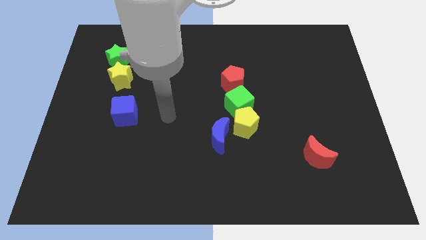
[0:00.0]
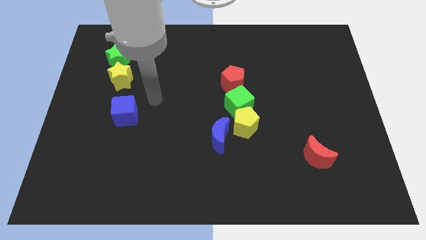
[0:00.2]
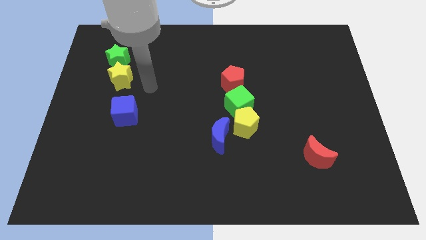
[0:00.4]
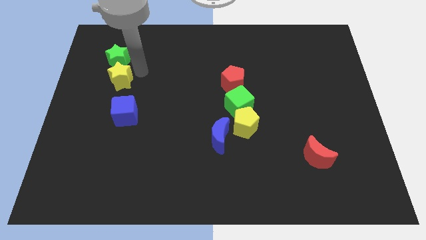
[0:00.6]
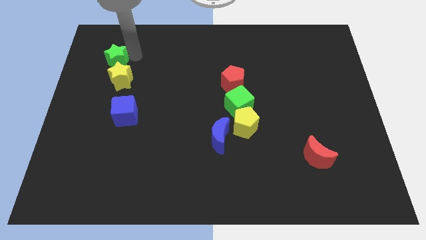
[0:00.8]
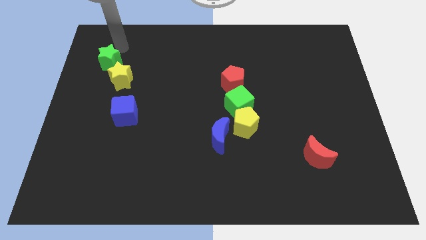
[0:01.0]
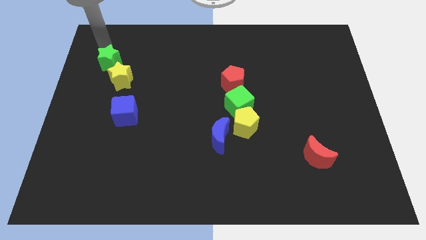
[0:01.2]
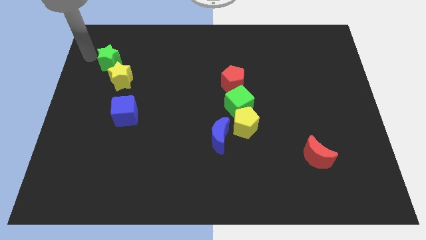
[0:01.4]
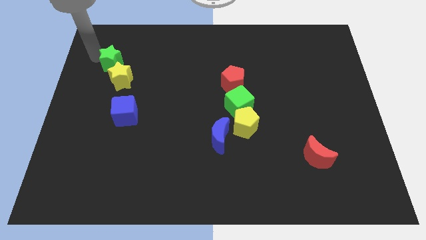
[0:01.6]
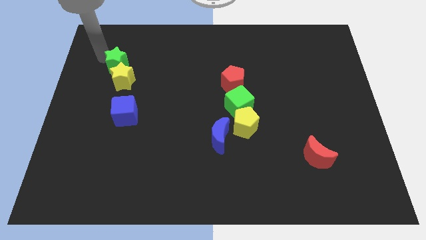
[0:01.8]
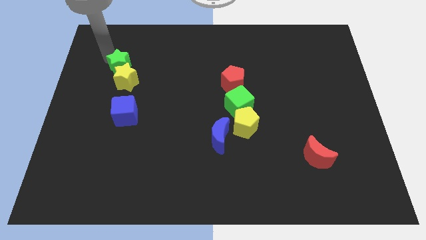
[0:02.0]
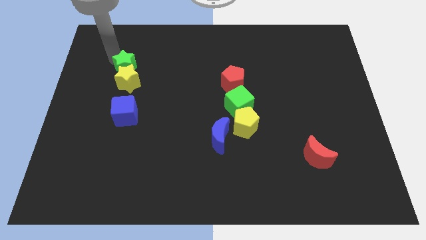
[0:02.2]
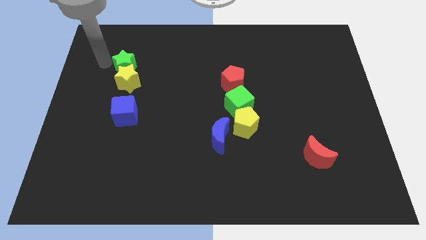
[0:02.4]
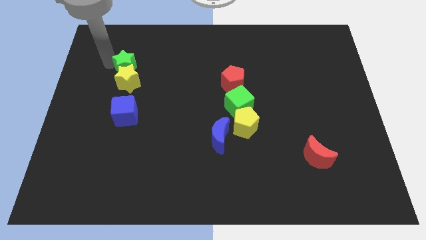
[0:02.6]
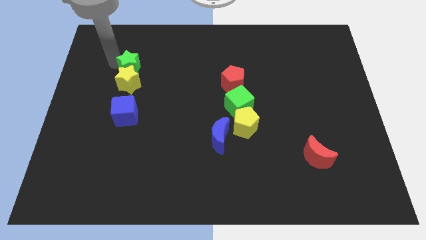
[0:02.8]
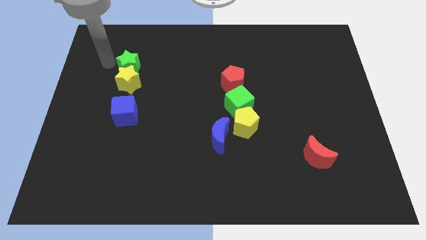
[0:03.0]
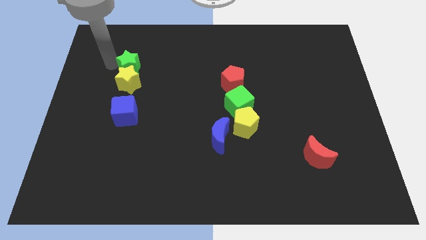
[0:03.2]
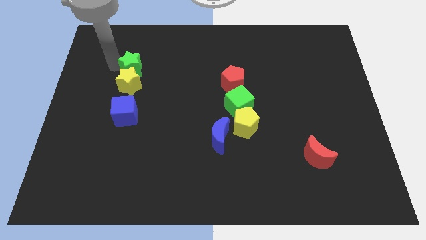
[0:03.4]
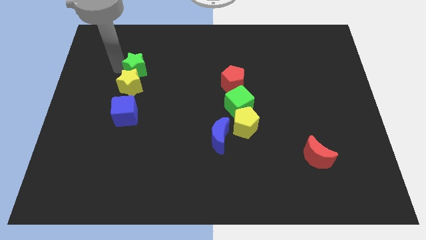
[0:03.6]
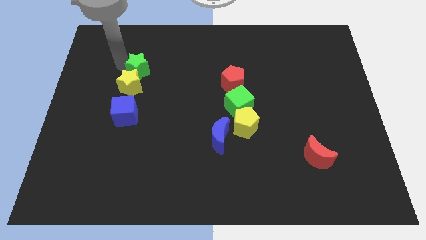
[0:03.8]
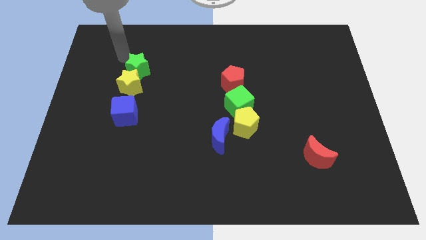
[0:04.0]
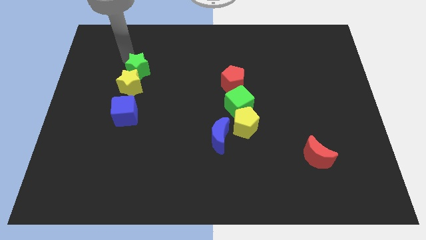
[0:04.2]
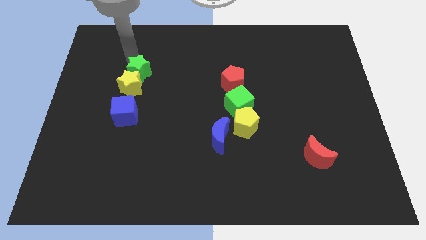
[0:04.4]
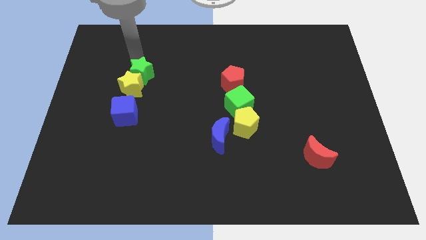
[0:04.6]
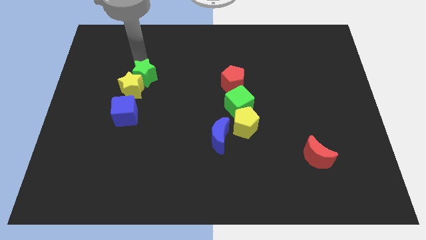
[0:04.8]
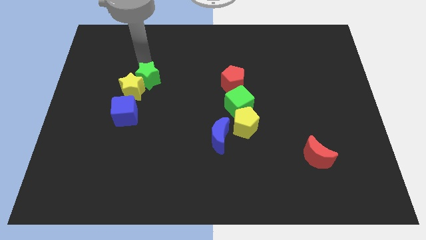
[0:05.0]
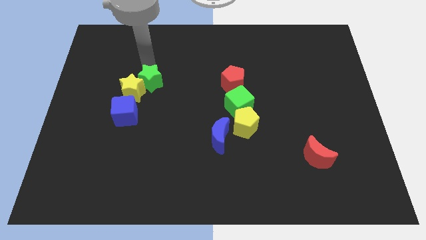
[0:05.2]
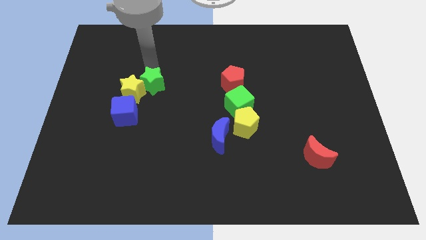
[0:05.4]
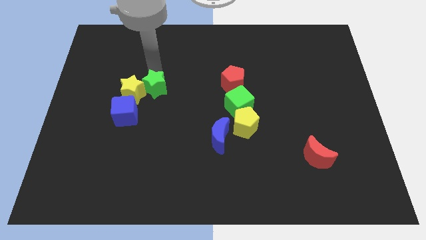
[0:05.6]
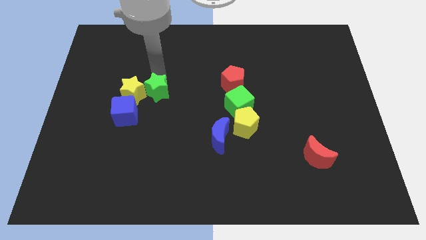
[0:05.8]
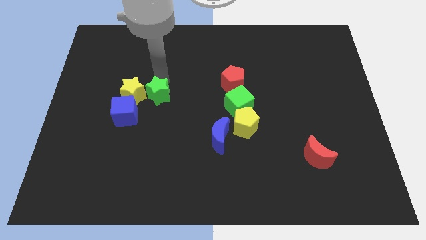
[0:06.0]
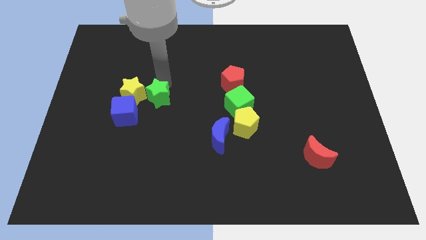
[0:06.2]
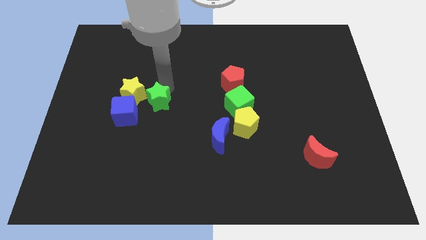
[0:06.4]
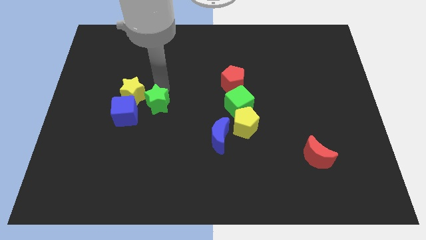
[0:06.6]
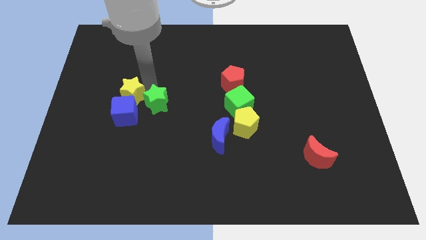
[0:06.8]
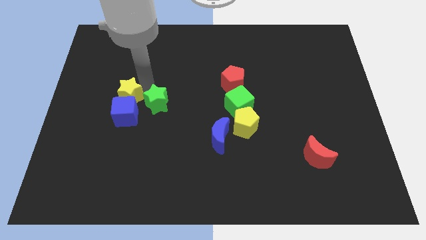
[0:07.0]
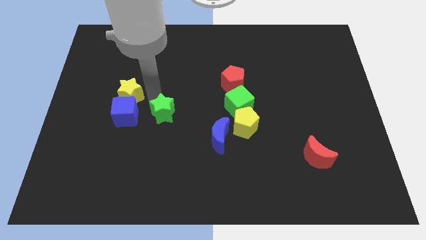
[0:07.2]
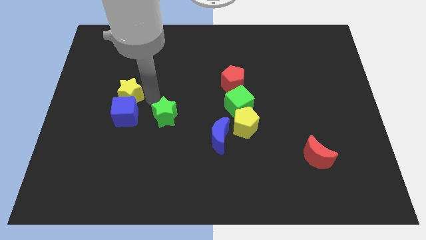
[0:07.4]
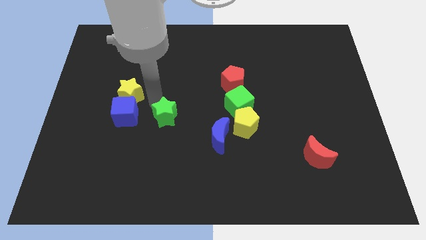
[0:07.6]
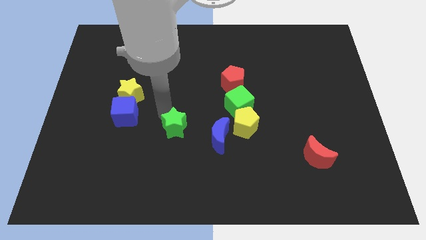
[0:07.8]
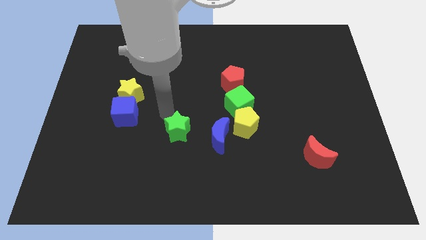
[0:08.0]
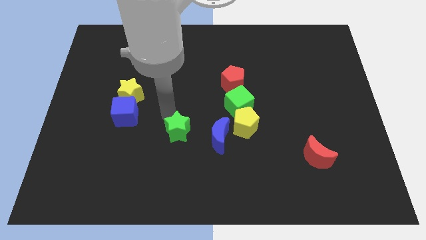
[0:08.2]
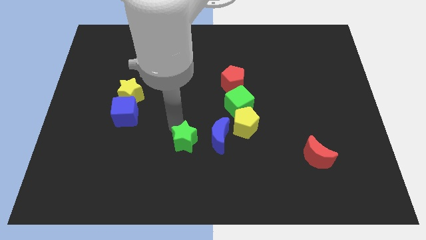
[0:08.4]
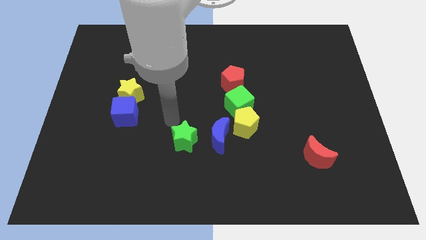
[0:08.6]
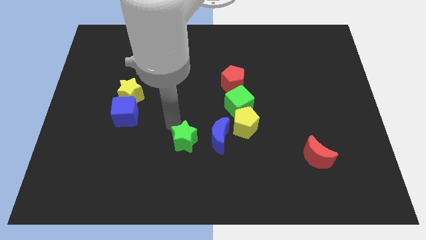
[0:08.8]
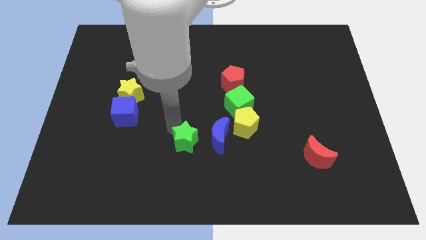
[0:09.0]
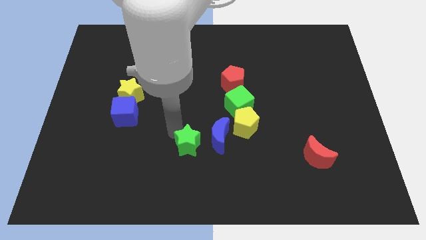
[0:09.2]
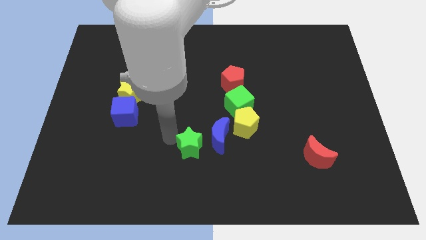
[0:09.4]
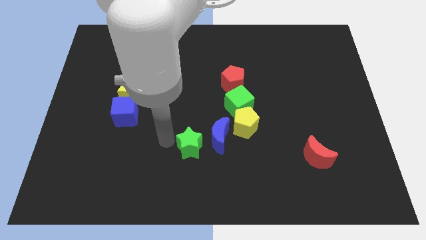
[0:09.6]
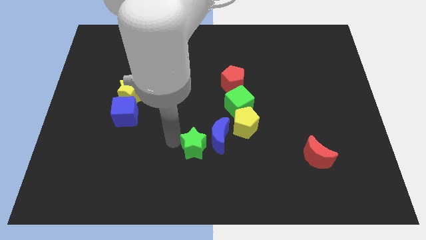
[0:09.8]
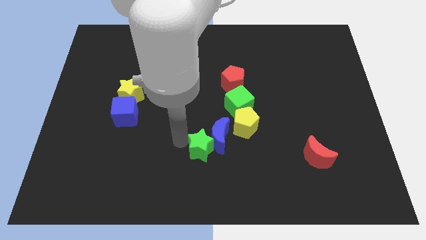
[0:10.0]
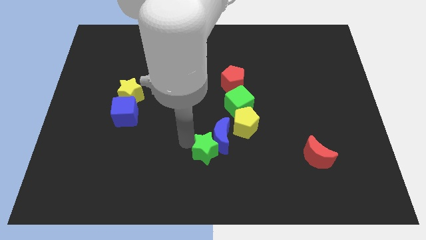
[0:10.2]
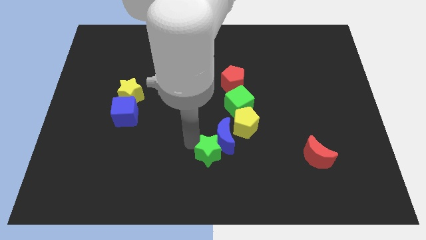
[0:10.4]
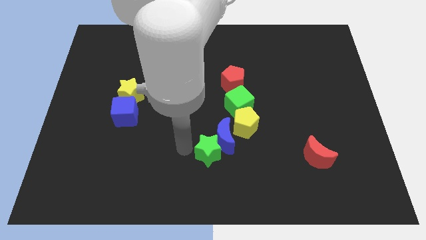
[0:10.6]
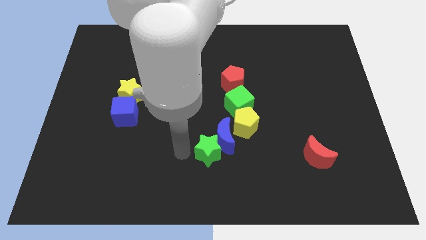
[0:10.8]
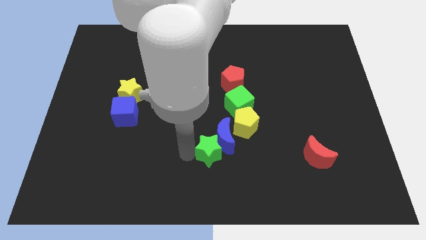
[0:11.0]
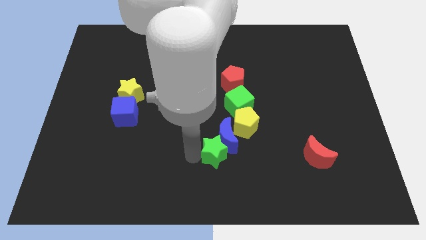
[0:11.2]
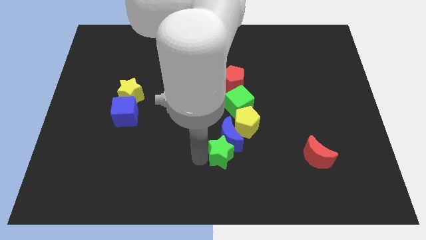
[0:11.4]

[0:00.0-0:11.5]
push the green star to the bottom side of the green cube

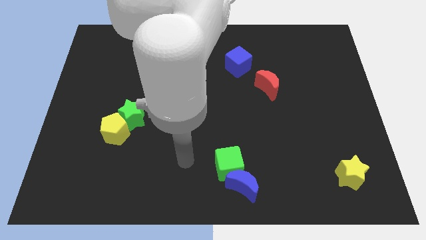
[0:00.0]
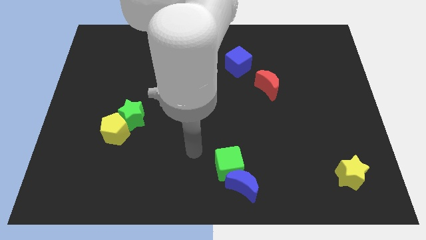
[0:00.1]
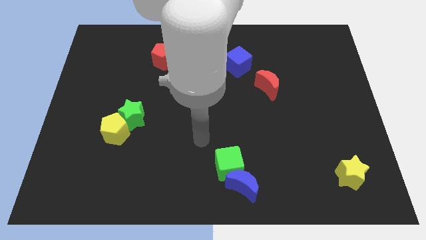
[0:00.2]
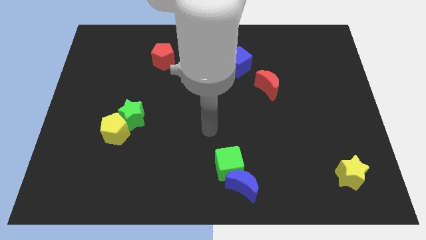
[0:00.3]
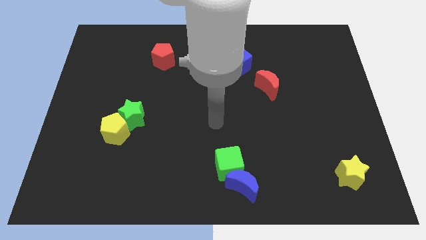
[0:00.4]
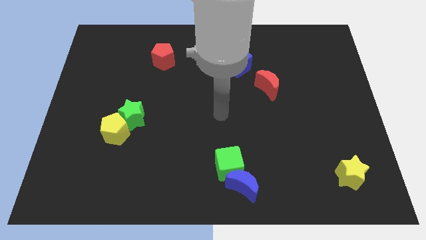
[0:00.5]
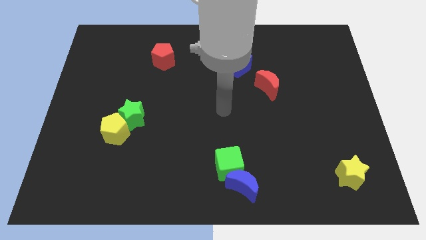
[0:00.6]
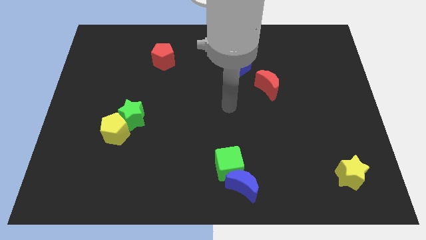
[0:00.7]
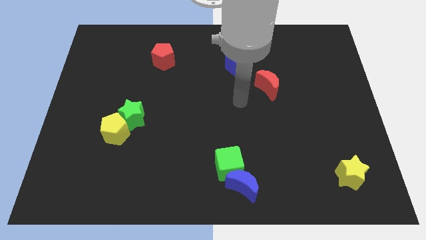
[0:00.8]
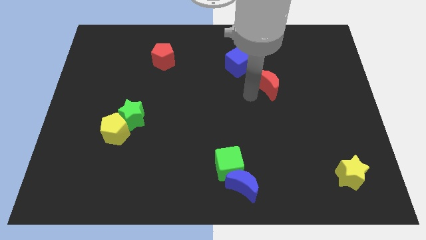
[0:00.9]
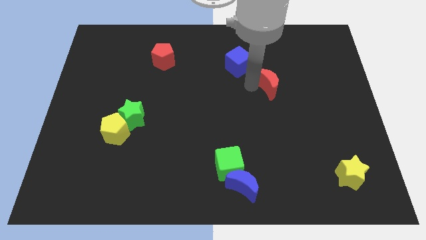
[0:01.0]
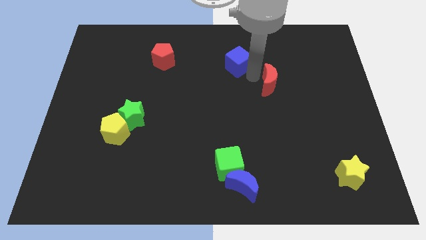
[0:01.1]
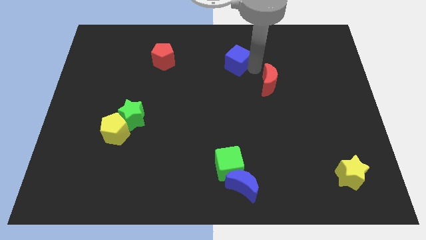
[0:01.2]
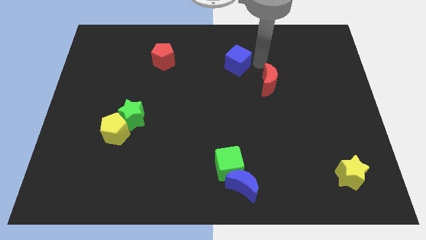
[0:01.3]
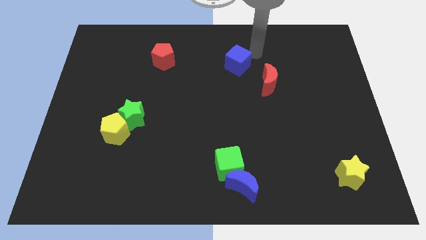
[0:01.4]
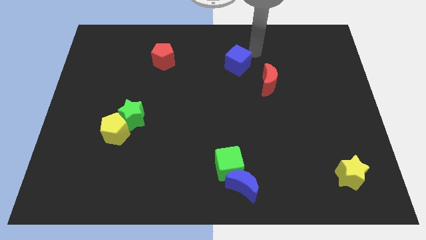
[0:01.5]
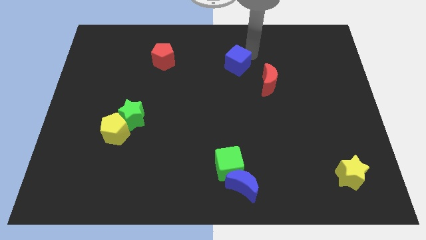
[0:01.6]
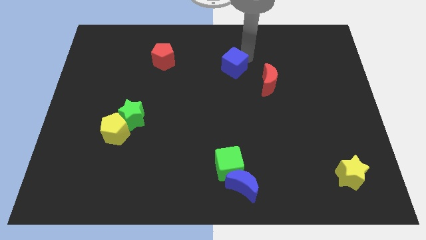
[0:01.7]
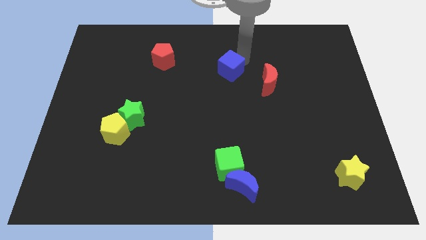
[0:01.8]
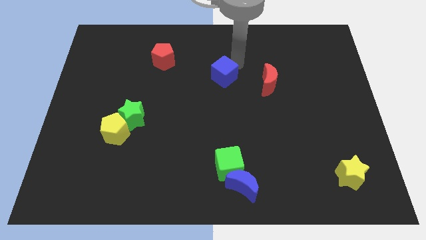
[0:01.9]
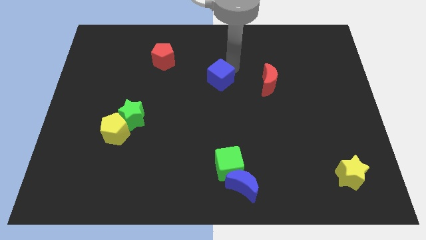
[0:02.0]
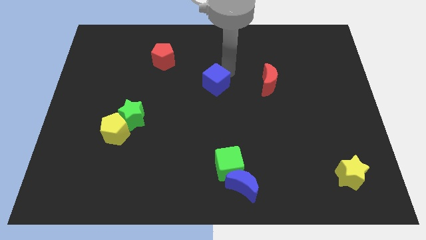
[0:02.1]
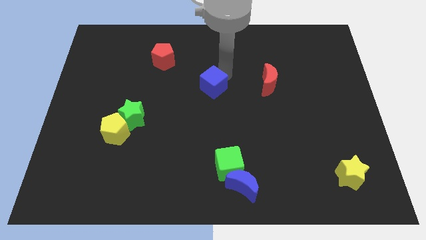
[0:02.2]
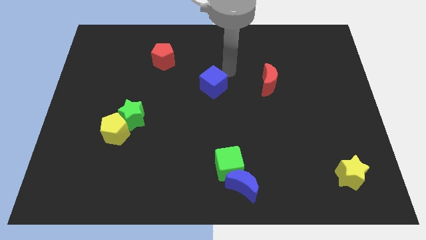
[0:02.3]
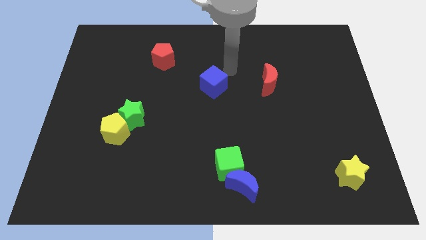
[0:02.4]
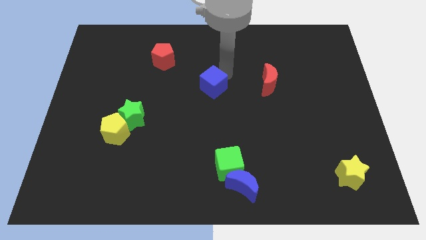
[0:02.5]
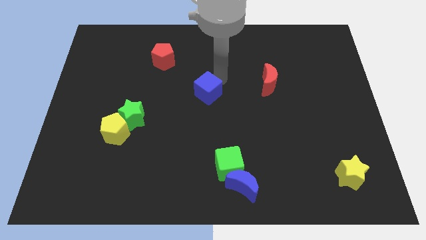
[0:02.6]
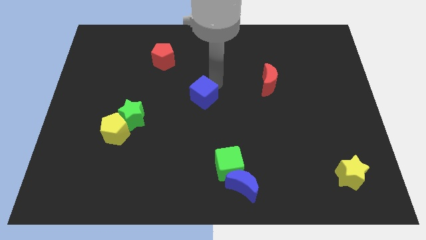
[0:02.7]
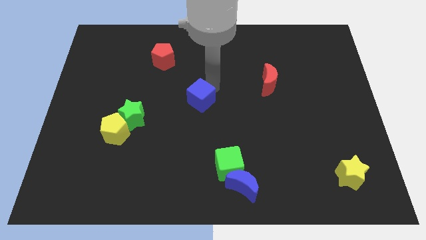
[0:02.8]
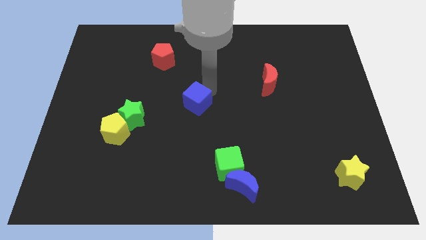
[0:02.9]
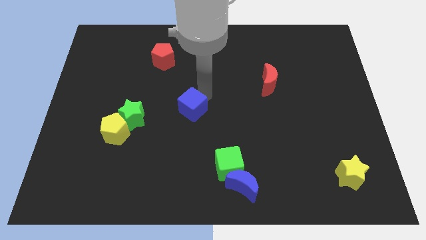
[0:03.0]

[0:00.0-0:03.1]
move the blue cube to the right of the green star
